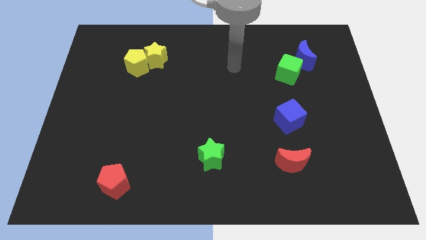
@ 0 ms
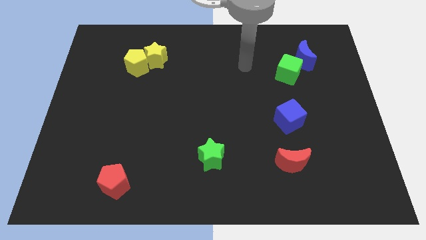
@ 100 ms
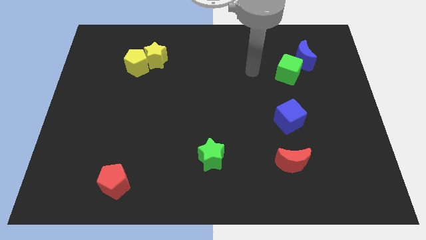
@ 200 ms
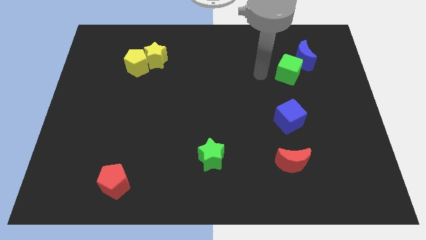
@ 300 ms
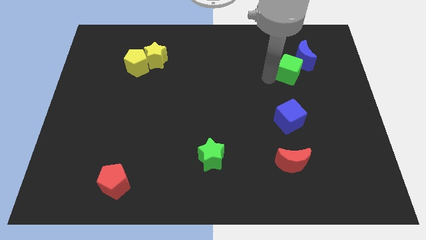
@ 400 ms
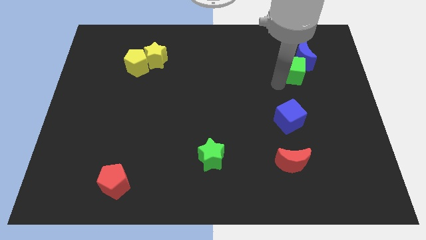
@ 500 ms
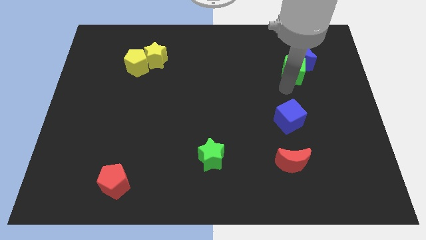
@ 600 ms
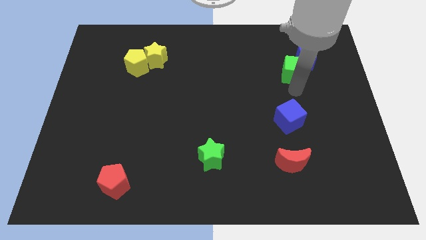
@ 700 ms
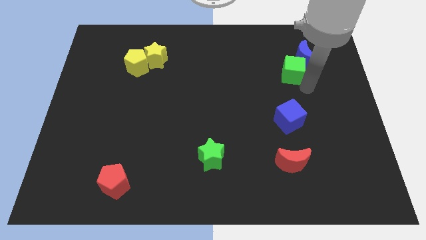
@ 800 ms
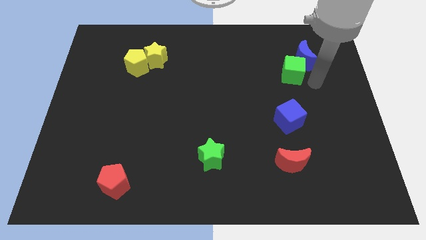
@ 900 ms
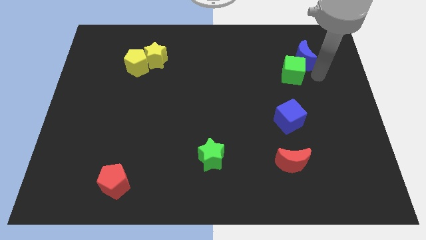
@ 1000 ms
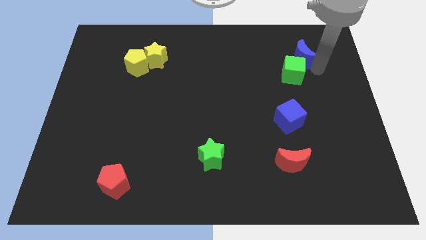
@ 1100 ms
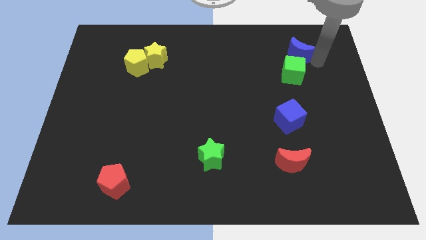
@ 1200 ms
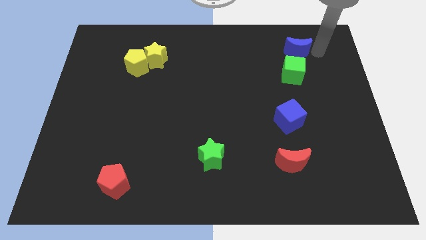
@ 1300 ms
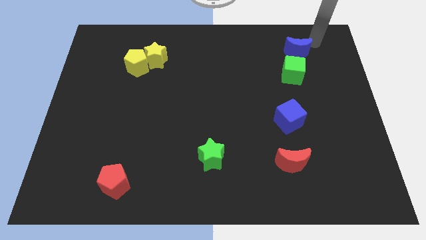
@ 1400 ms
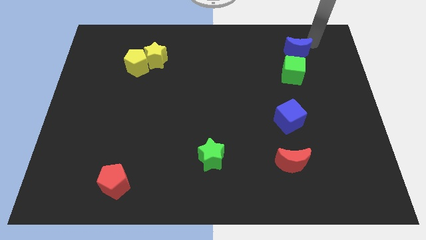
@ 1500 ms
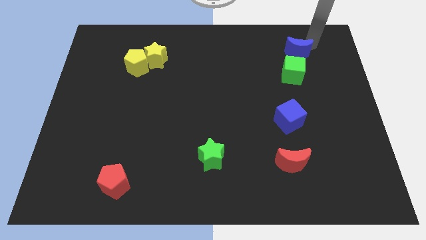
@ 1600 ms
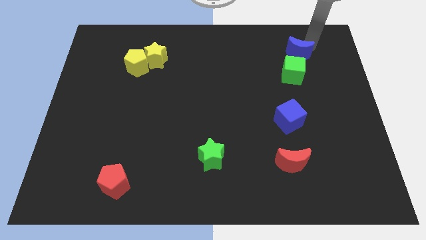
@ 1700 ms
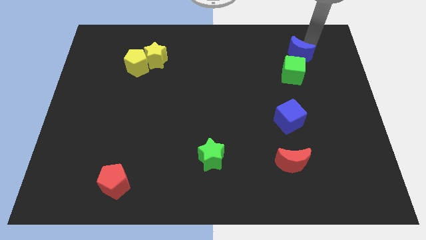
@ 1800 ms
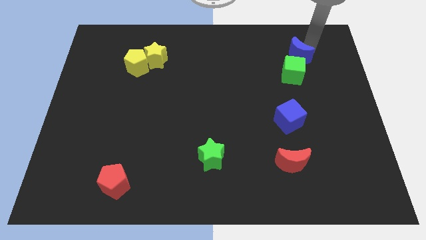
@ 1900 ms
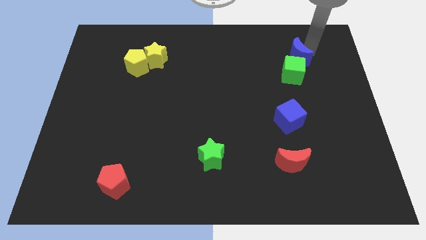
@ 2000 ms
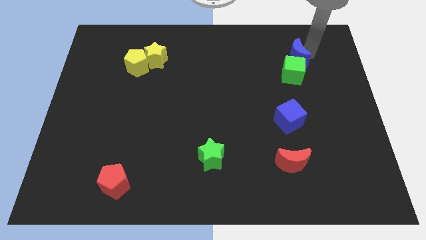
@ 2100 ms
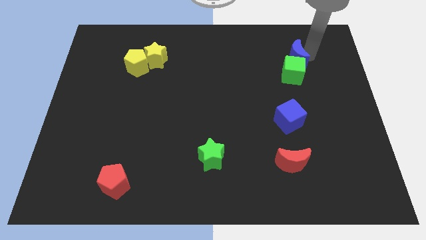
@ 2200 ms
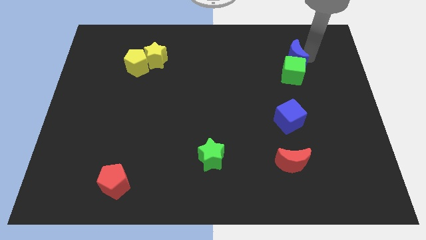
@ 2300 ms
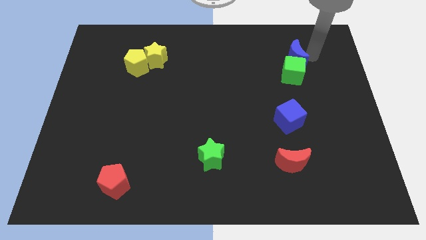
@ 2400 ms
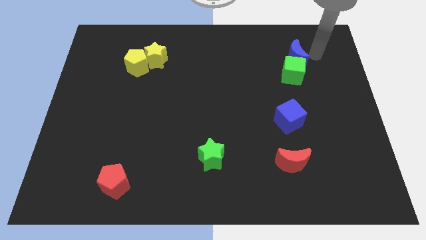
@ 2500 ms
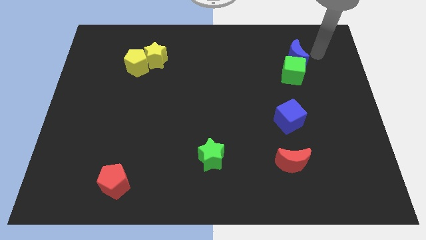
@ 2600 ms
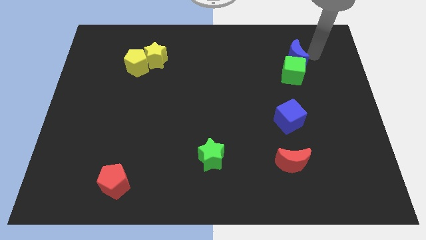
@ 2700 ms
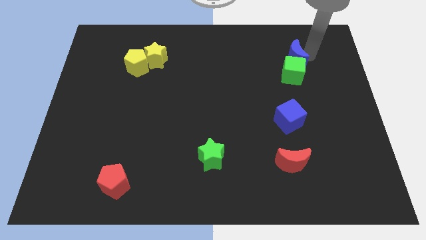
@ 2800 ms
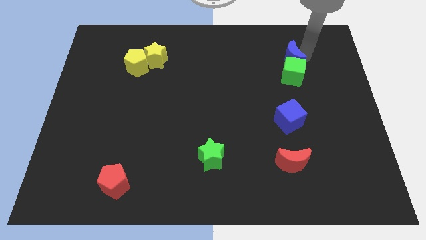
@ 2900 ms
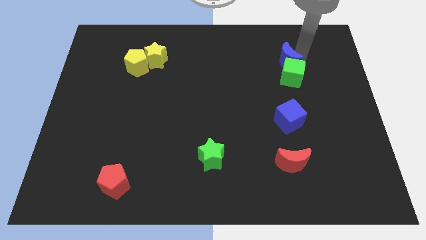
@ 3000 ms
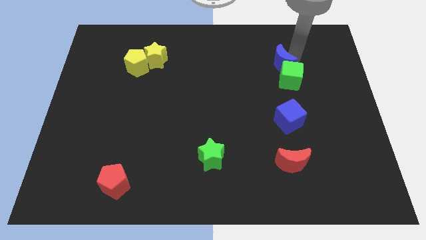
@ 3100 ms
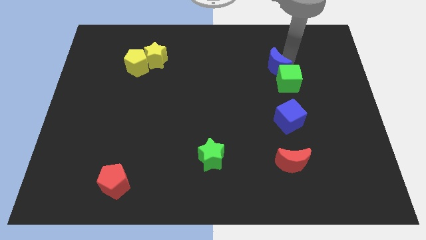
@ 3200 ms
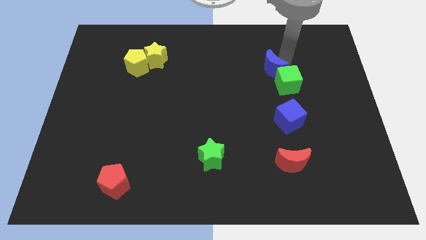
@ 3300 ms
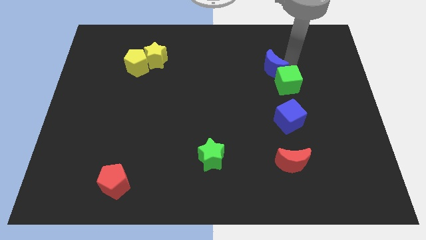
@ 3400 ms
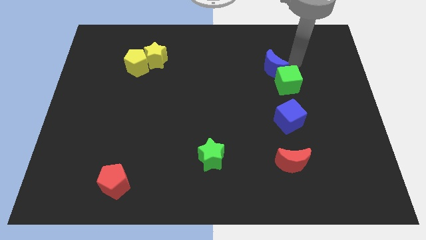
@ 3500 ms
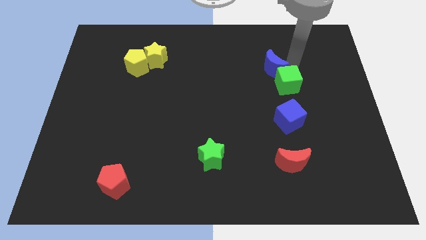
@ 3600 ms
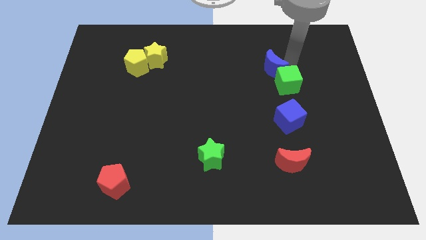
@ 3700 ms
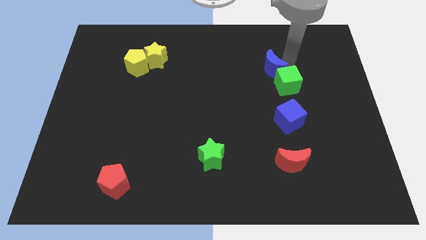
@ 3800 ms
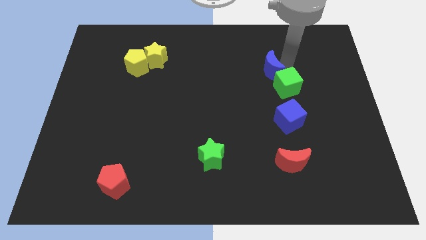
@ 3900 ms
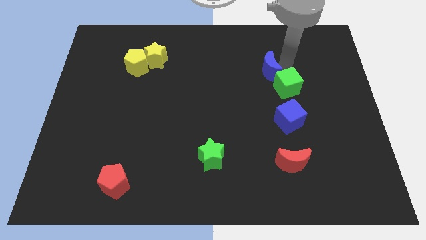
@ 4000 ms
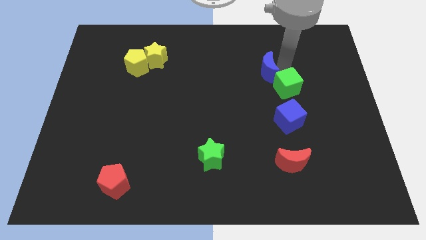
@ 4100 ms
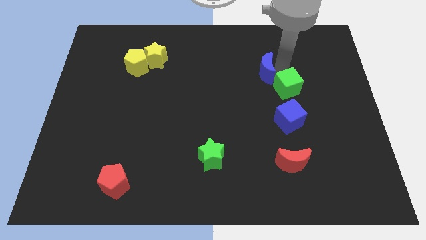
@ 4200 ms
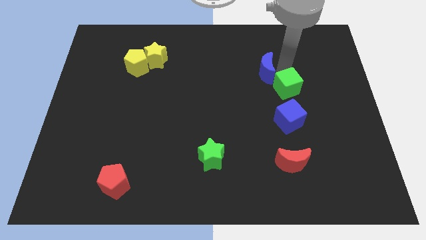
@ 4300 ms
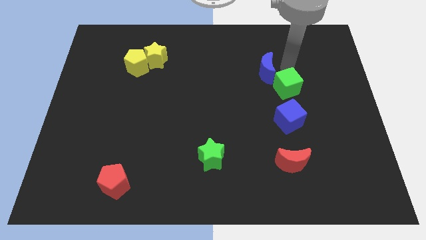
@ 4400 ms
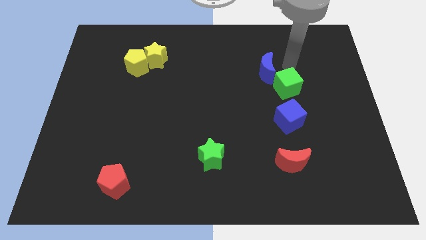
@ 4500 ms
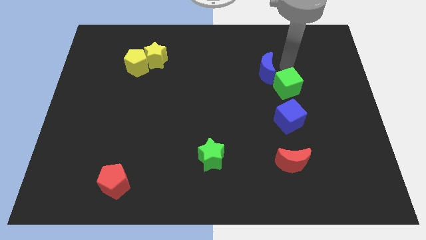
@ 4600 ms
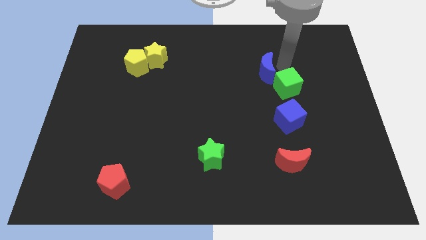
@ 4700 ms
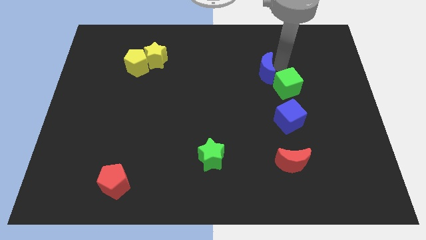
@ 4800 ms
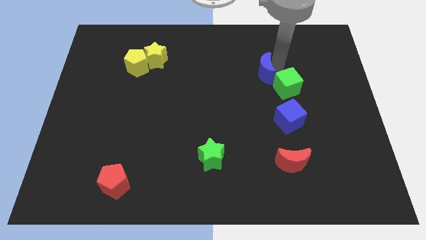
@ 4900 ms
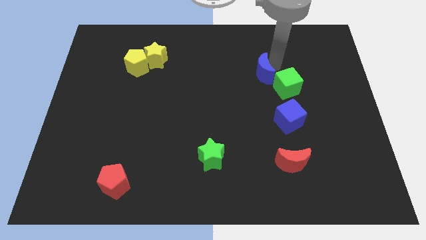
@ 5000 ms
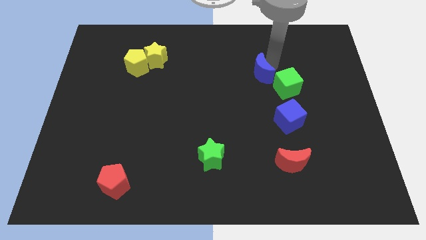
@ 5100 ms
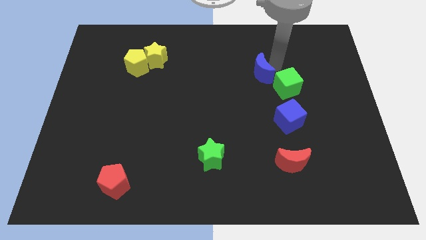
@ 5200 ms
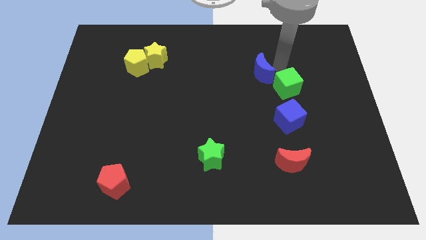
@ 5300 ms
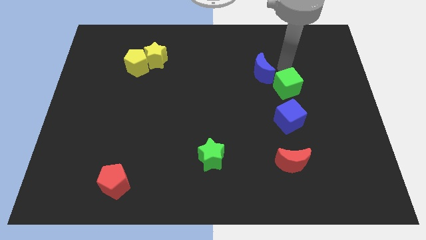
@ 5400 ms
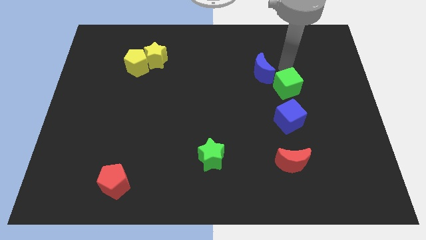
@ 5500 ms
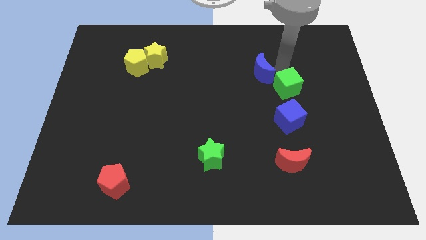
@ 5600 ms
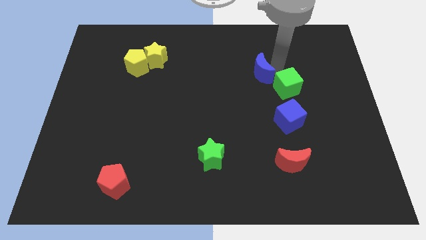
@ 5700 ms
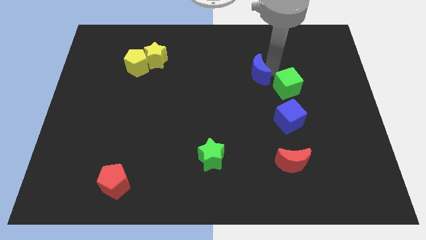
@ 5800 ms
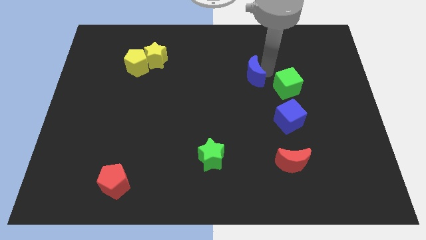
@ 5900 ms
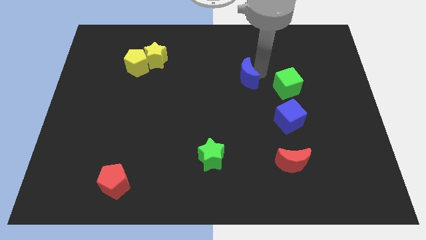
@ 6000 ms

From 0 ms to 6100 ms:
put the blue moon to the center of the board

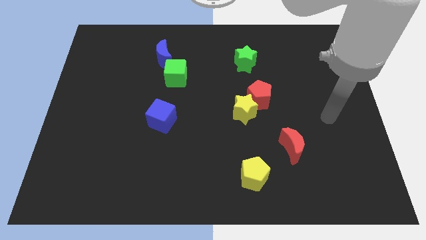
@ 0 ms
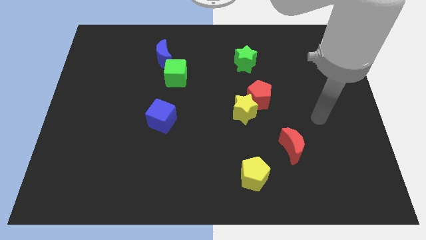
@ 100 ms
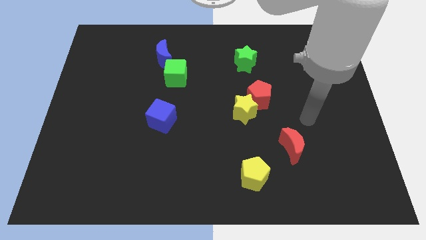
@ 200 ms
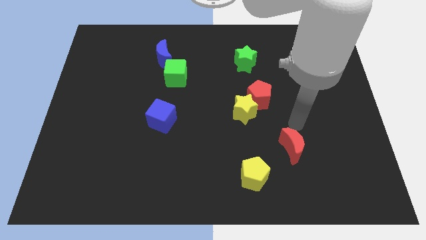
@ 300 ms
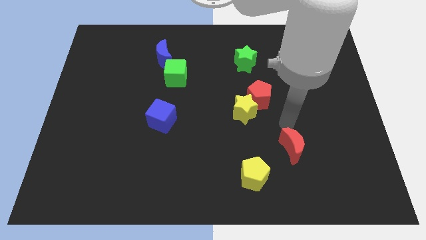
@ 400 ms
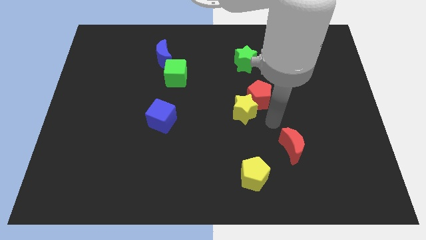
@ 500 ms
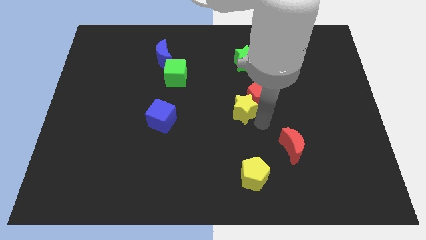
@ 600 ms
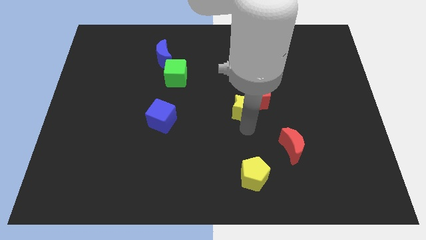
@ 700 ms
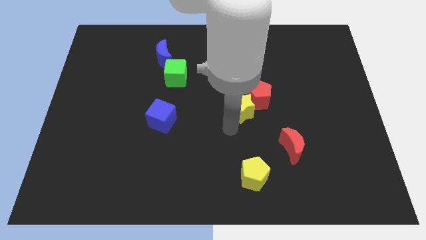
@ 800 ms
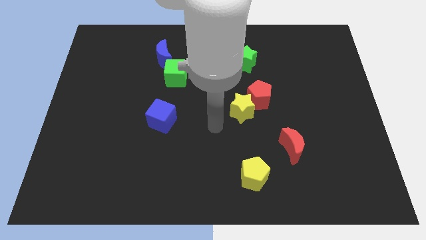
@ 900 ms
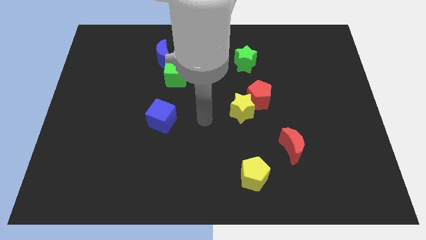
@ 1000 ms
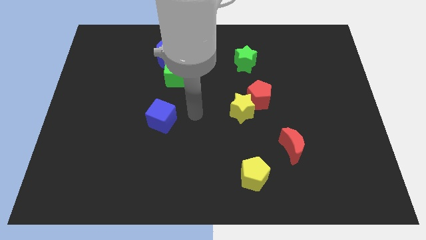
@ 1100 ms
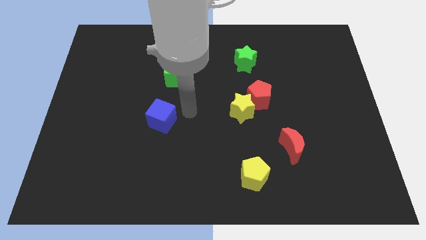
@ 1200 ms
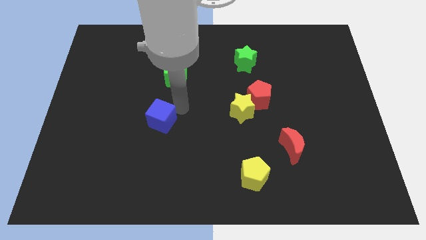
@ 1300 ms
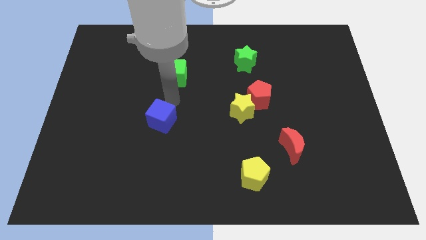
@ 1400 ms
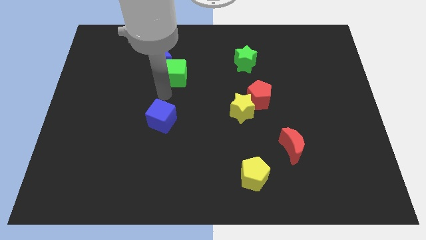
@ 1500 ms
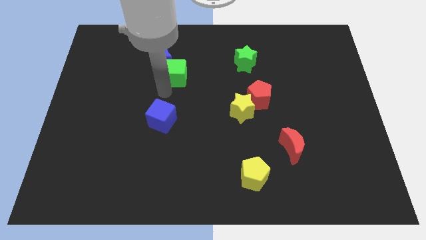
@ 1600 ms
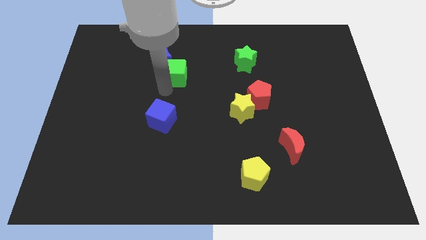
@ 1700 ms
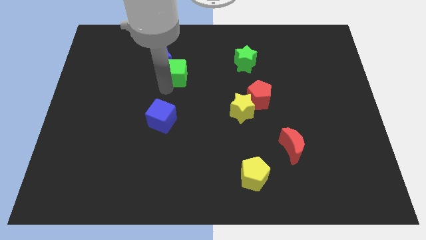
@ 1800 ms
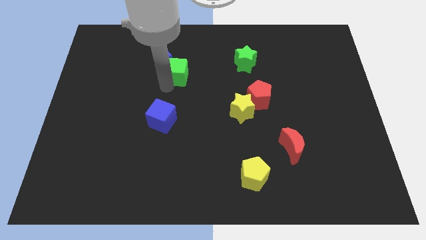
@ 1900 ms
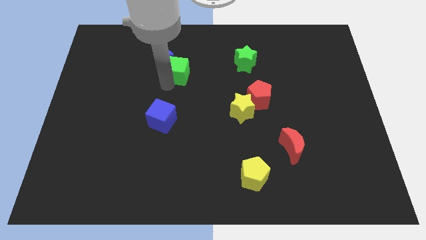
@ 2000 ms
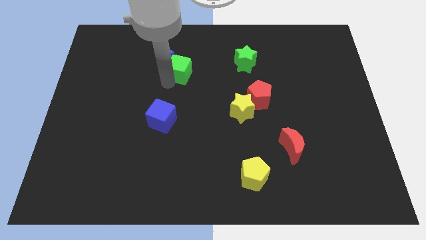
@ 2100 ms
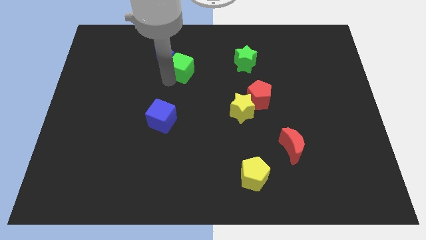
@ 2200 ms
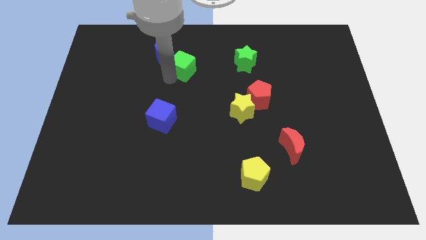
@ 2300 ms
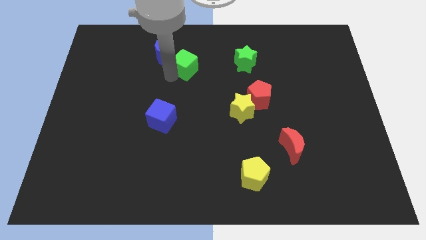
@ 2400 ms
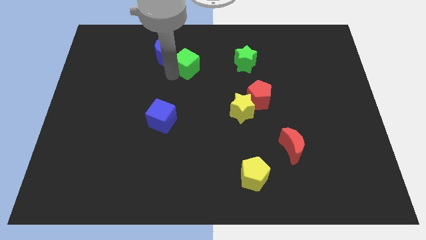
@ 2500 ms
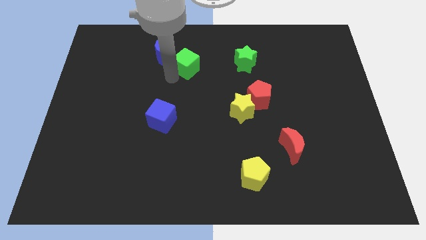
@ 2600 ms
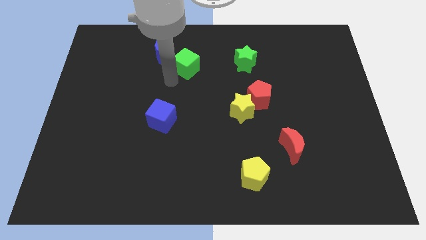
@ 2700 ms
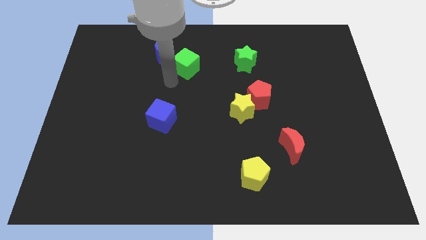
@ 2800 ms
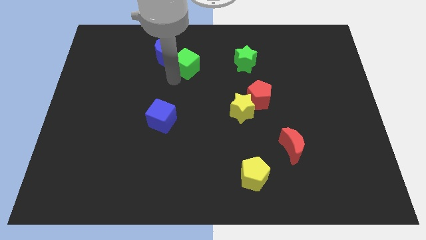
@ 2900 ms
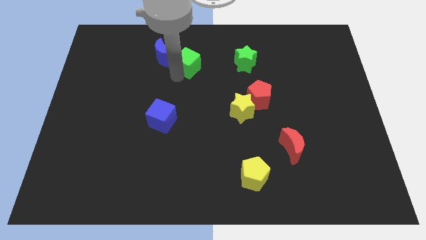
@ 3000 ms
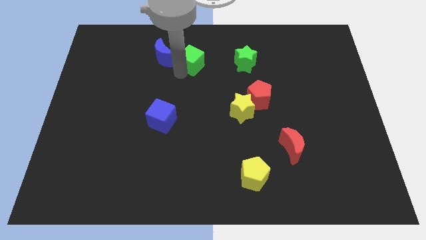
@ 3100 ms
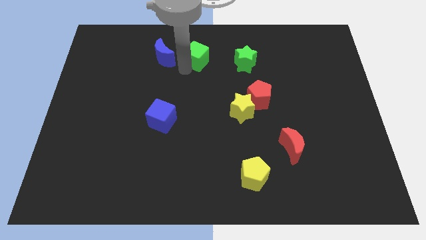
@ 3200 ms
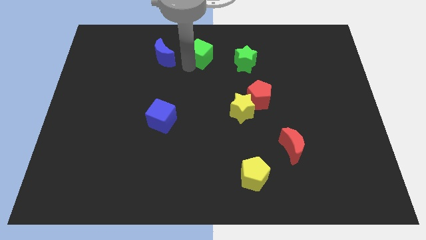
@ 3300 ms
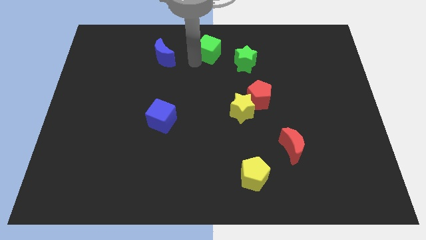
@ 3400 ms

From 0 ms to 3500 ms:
move the green cube to the top side
